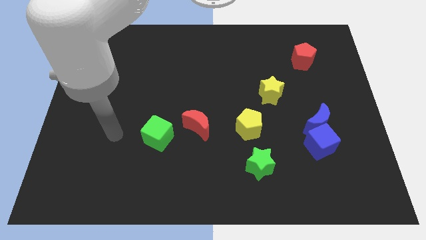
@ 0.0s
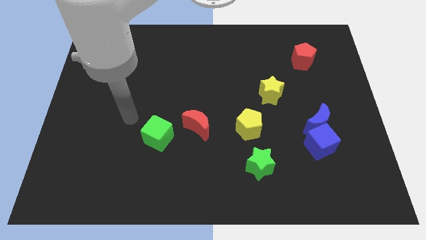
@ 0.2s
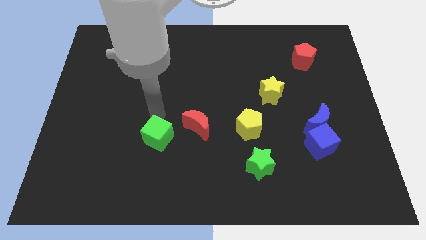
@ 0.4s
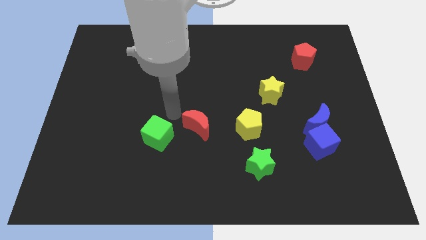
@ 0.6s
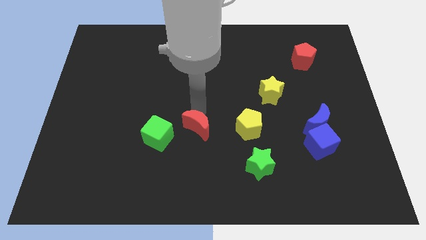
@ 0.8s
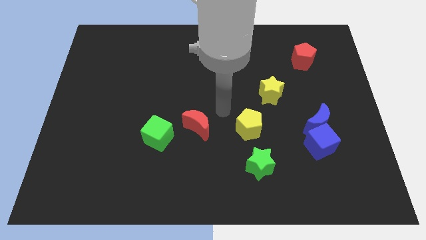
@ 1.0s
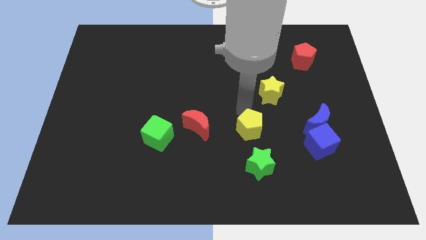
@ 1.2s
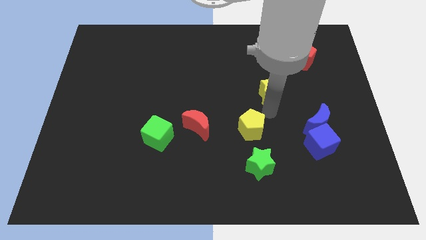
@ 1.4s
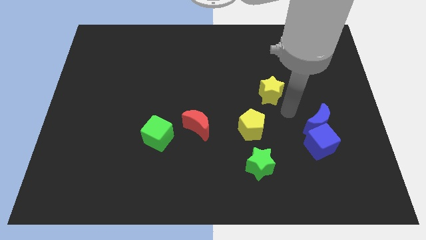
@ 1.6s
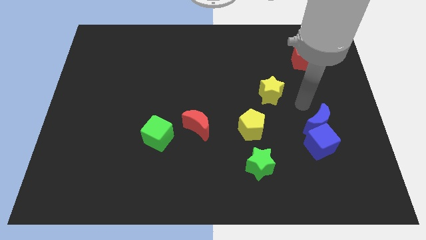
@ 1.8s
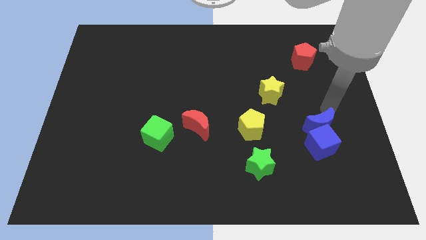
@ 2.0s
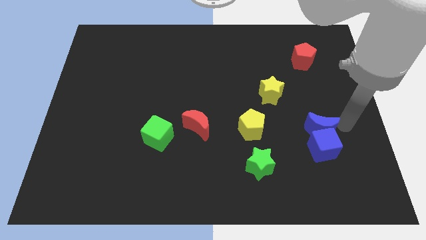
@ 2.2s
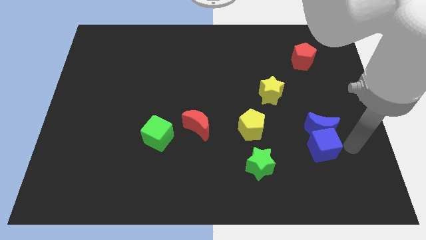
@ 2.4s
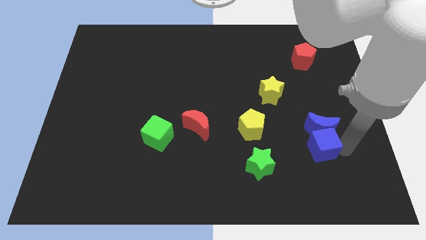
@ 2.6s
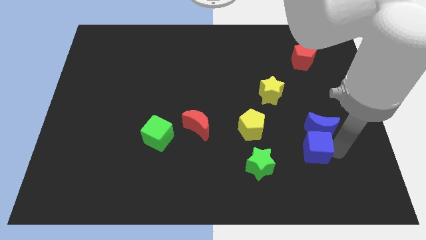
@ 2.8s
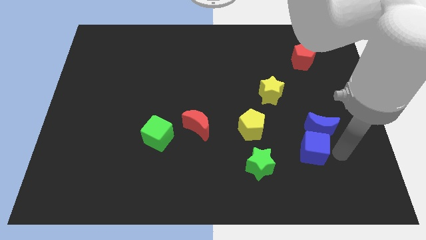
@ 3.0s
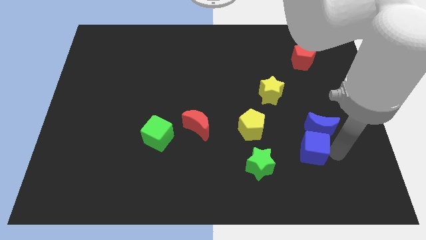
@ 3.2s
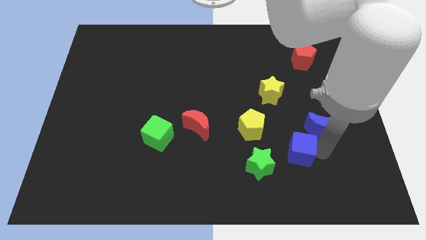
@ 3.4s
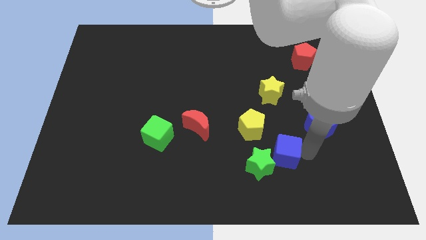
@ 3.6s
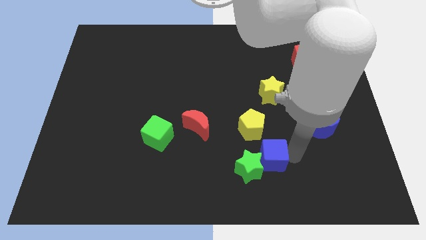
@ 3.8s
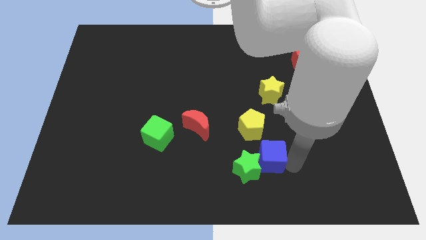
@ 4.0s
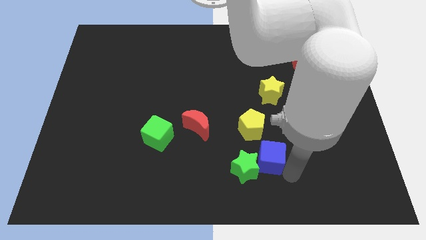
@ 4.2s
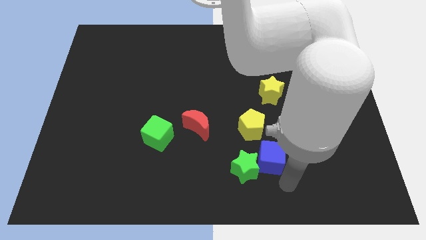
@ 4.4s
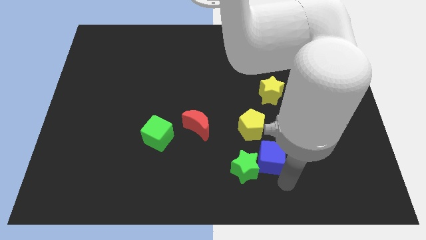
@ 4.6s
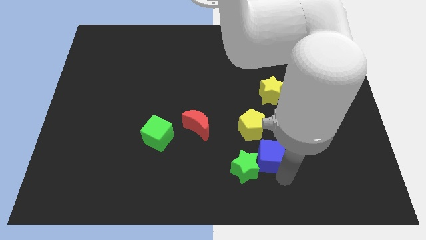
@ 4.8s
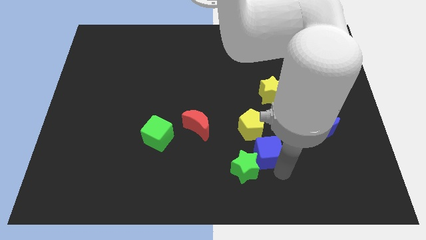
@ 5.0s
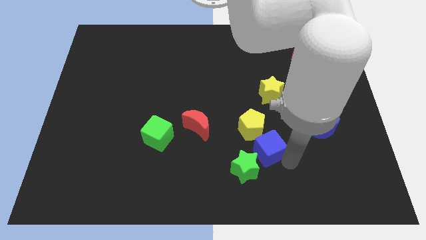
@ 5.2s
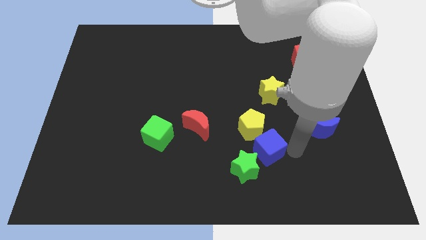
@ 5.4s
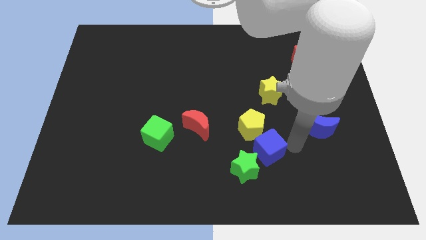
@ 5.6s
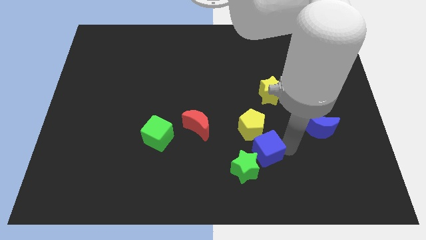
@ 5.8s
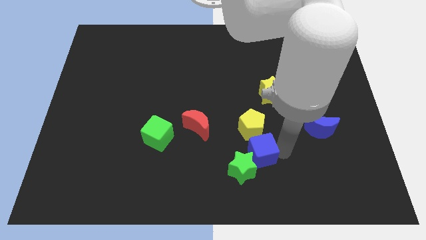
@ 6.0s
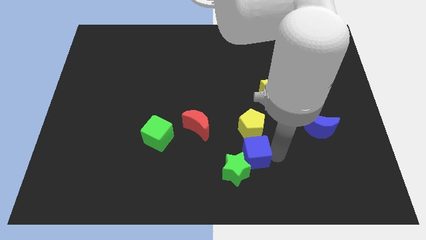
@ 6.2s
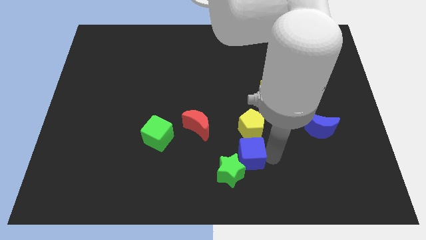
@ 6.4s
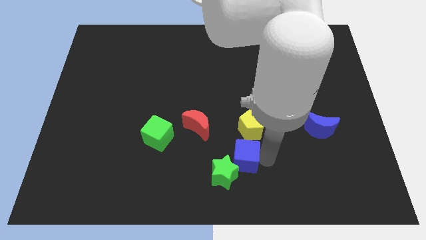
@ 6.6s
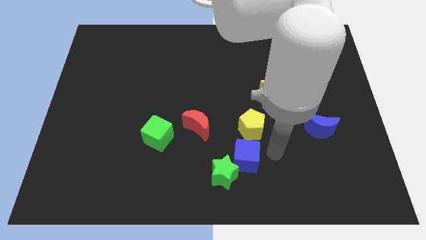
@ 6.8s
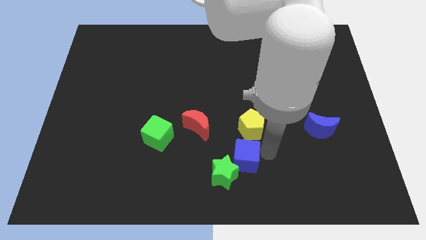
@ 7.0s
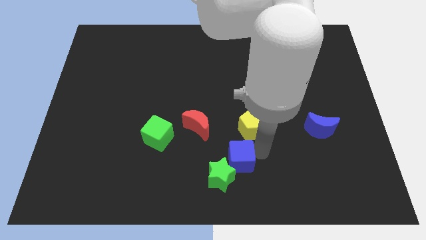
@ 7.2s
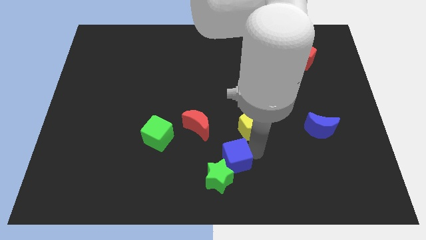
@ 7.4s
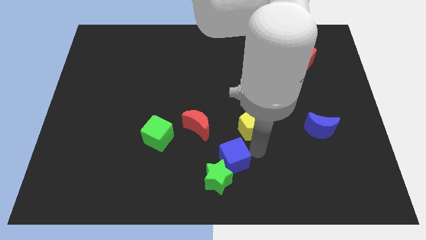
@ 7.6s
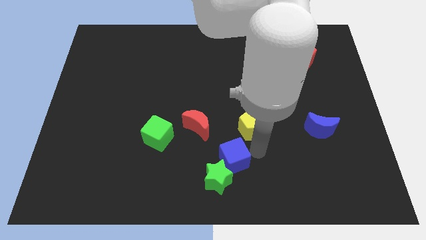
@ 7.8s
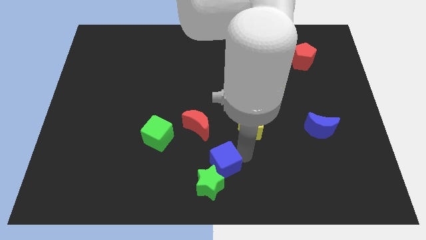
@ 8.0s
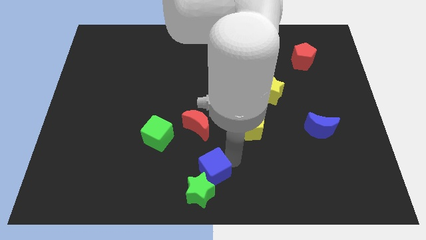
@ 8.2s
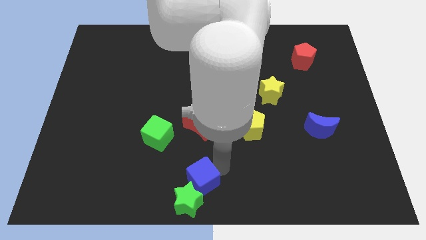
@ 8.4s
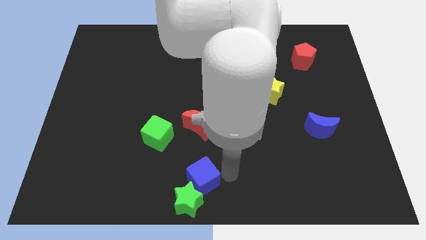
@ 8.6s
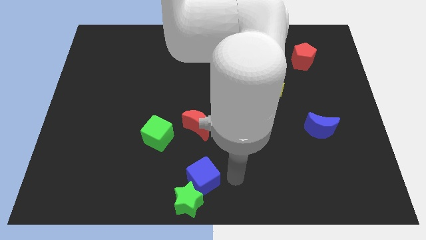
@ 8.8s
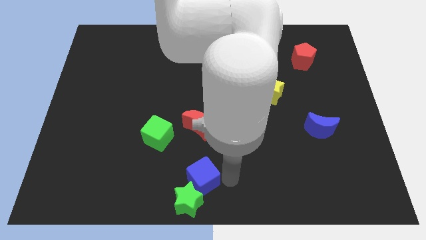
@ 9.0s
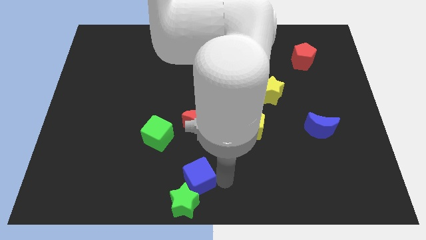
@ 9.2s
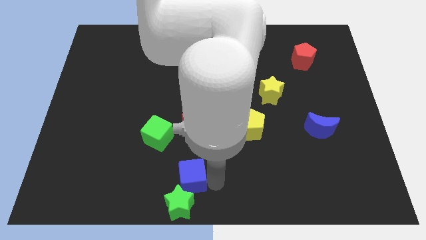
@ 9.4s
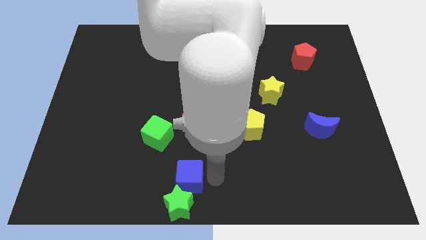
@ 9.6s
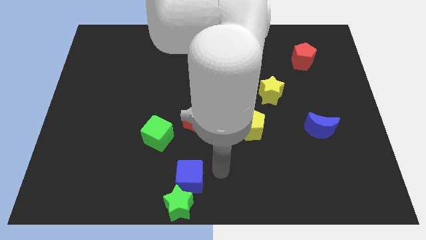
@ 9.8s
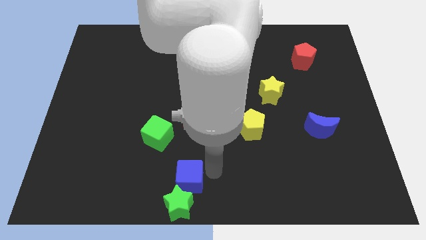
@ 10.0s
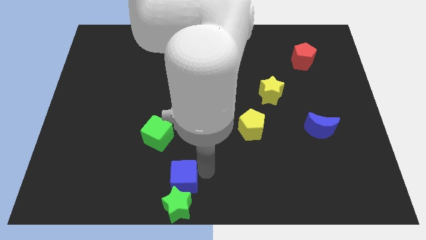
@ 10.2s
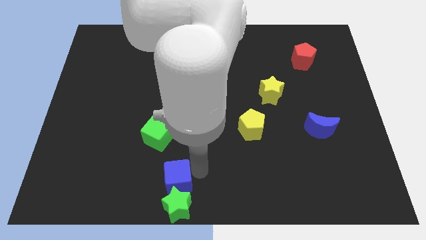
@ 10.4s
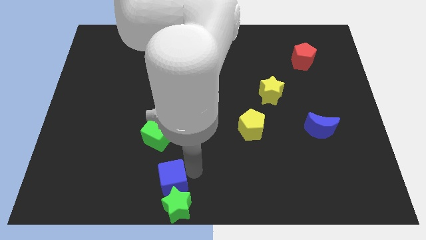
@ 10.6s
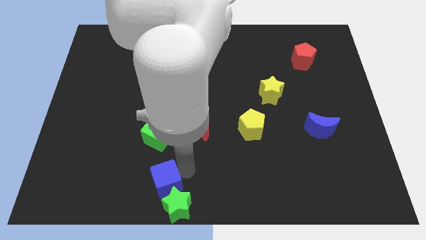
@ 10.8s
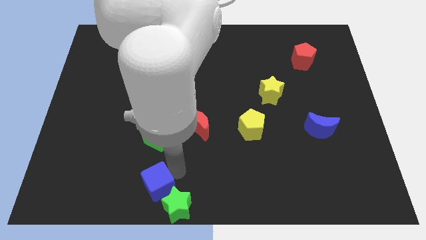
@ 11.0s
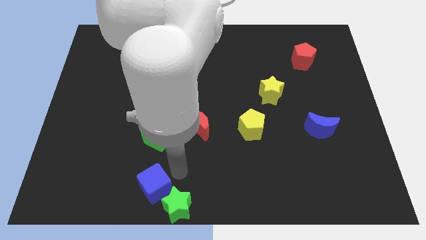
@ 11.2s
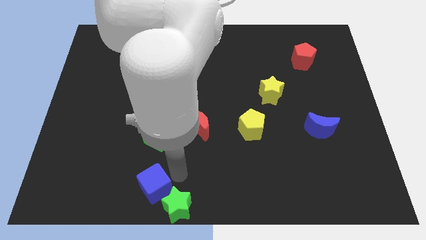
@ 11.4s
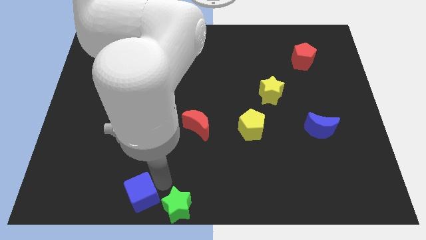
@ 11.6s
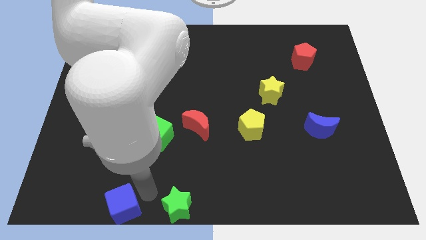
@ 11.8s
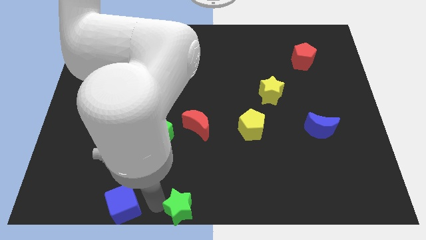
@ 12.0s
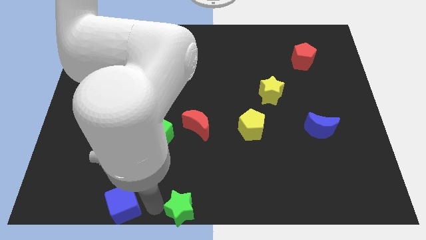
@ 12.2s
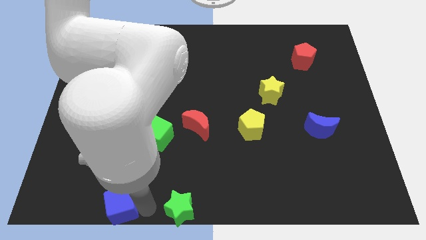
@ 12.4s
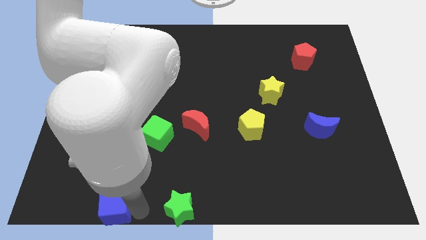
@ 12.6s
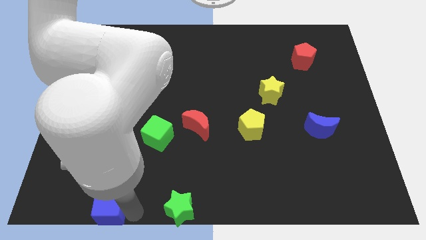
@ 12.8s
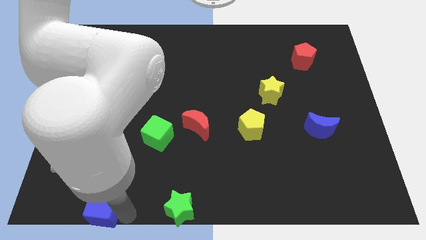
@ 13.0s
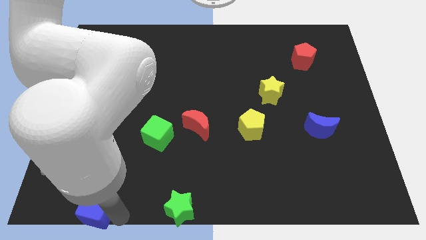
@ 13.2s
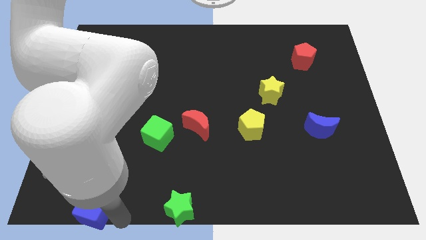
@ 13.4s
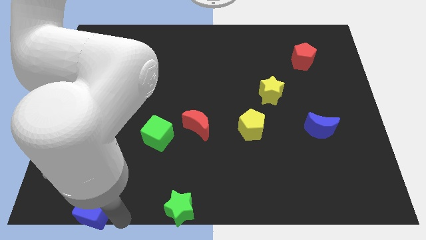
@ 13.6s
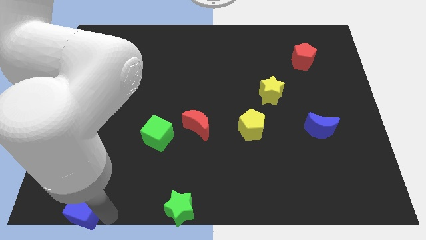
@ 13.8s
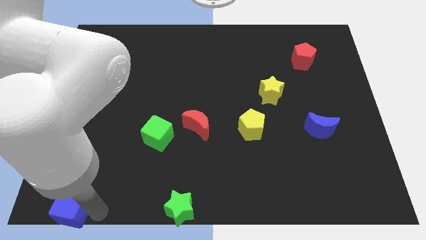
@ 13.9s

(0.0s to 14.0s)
put the blue cube to the bottom left of the board
